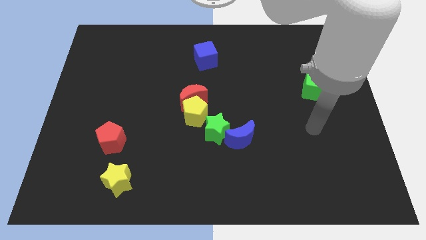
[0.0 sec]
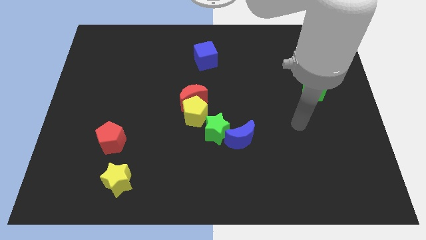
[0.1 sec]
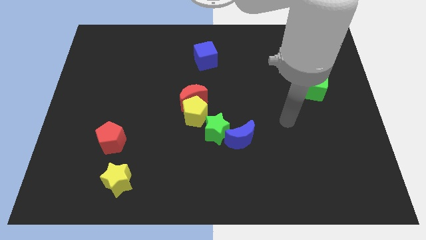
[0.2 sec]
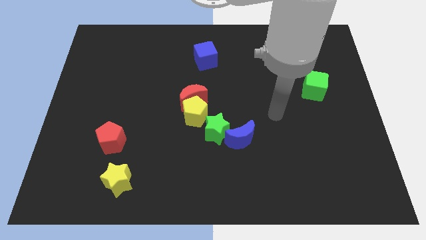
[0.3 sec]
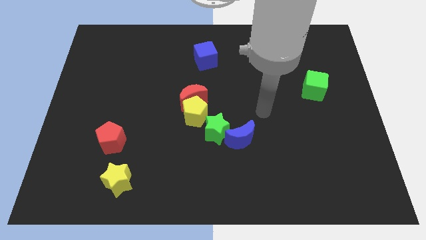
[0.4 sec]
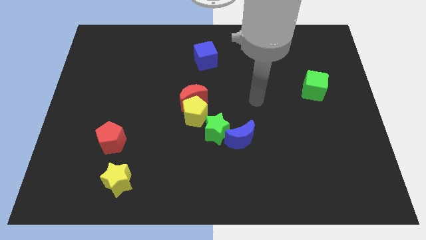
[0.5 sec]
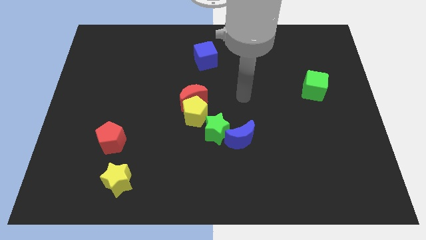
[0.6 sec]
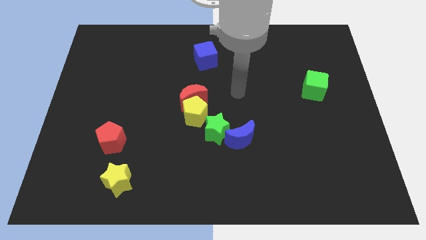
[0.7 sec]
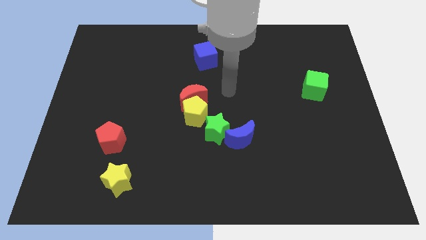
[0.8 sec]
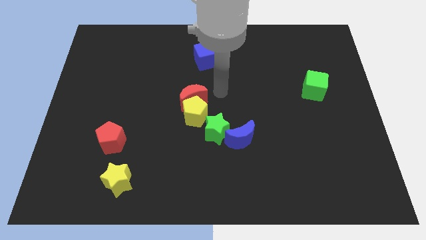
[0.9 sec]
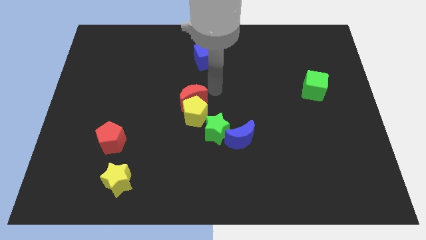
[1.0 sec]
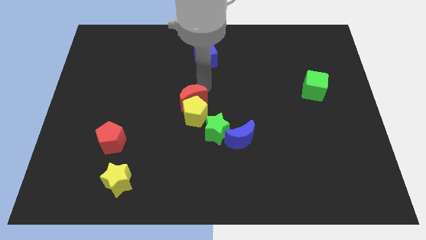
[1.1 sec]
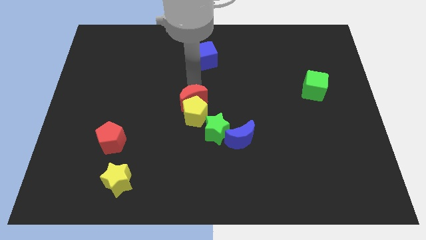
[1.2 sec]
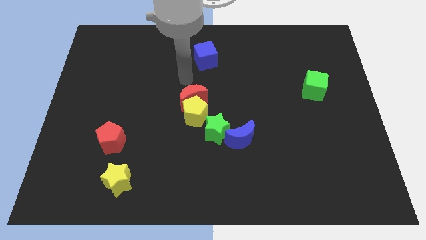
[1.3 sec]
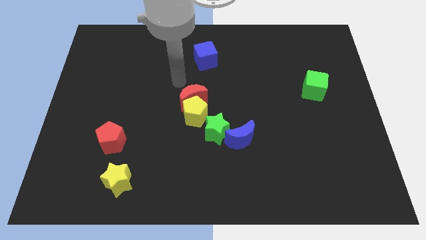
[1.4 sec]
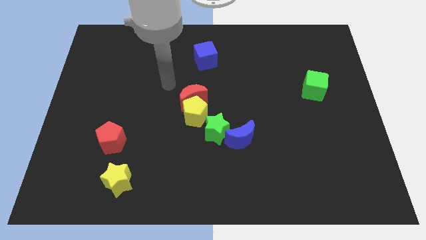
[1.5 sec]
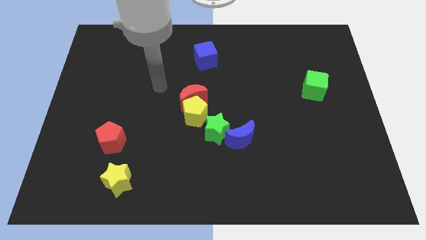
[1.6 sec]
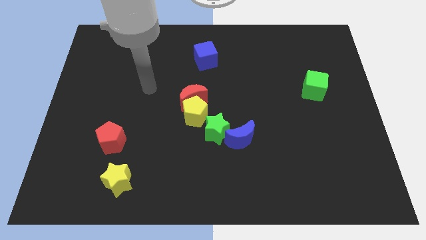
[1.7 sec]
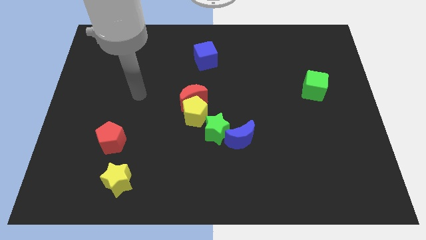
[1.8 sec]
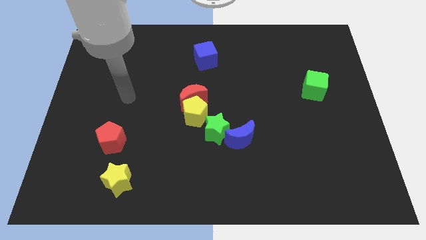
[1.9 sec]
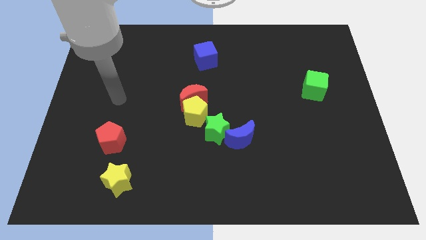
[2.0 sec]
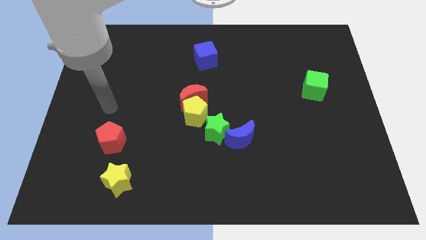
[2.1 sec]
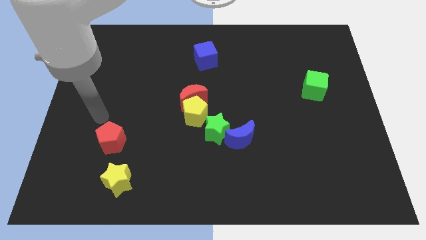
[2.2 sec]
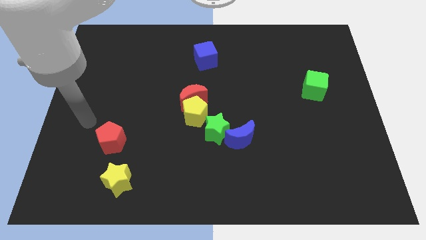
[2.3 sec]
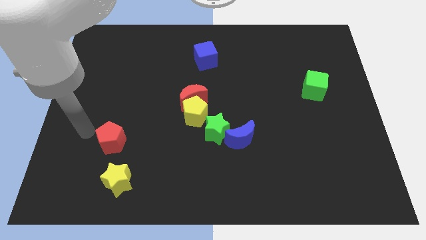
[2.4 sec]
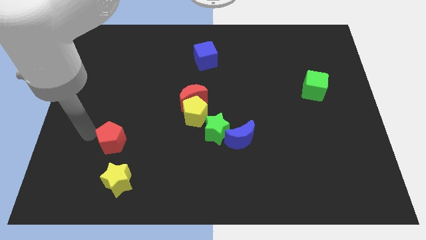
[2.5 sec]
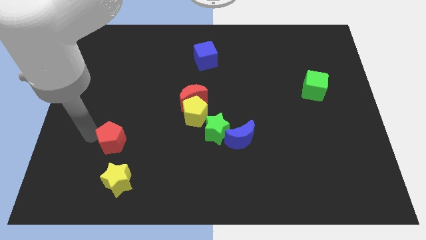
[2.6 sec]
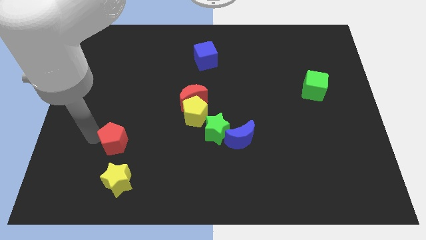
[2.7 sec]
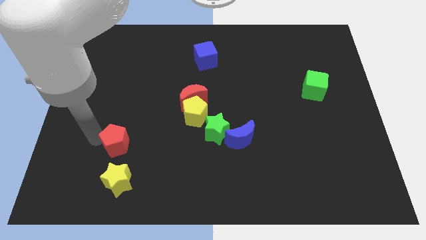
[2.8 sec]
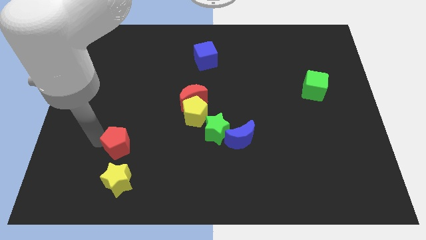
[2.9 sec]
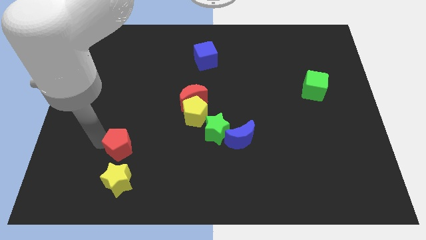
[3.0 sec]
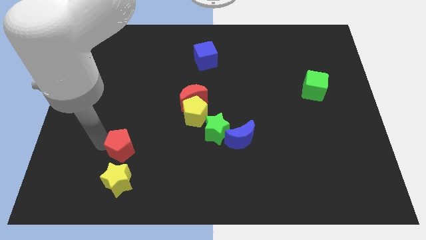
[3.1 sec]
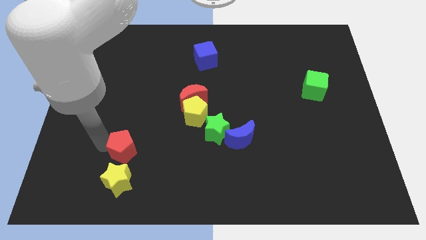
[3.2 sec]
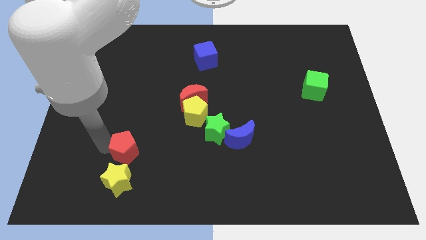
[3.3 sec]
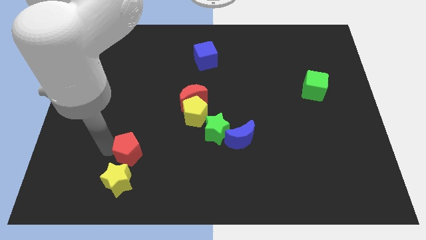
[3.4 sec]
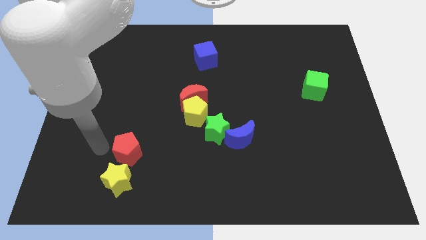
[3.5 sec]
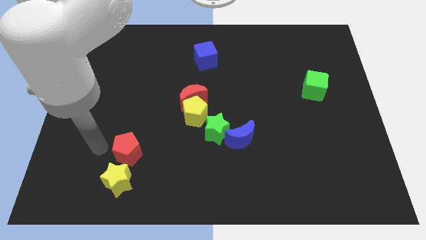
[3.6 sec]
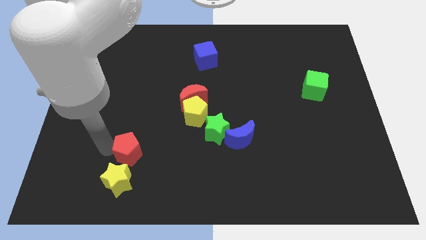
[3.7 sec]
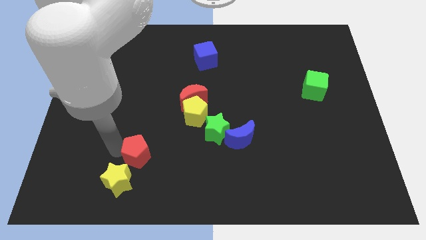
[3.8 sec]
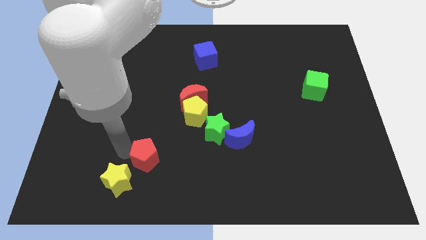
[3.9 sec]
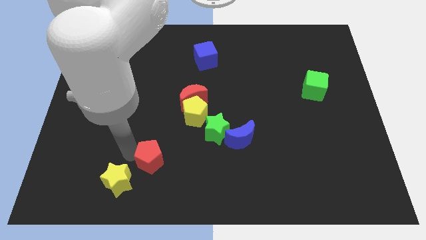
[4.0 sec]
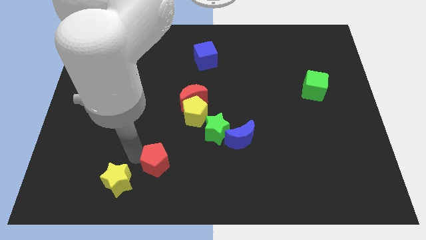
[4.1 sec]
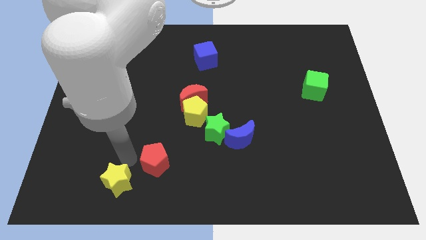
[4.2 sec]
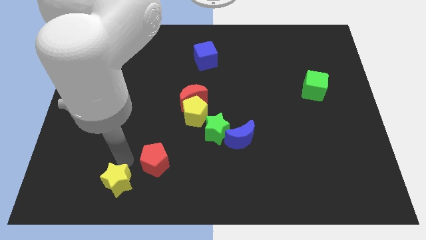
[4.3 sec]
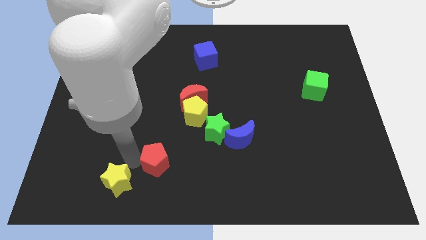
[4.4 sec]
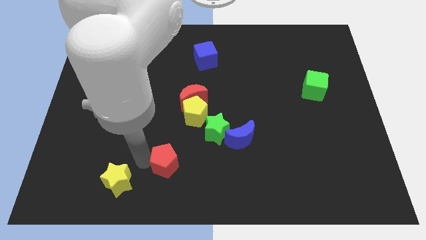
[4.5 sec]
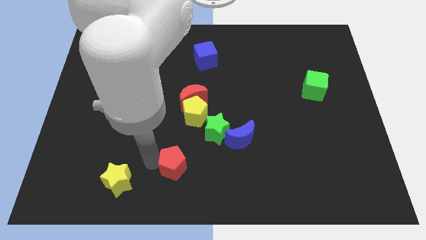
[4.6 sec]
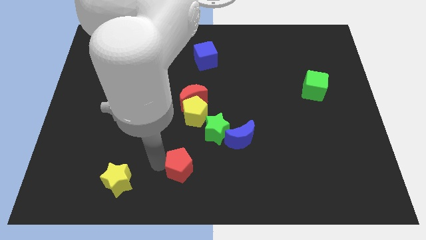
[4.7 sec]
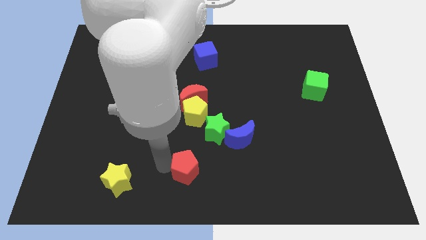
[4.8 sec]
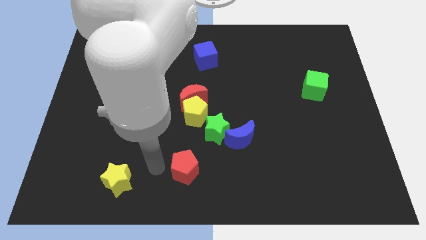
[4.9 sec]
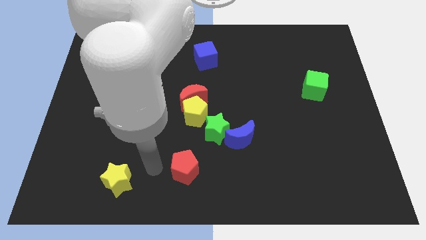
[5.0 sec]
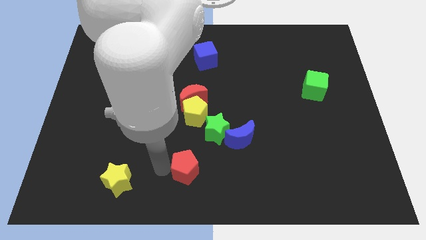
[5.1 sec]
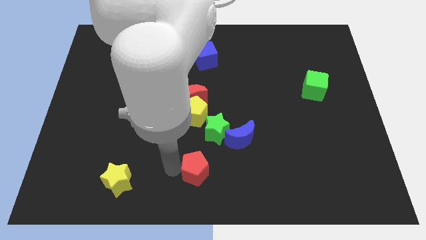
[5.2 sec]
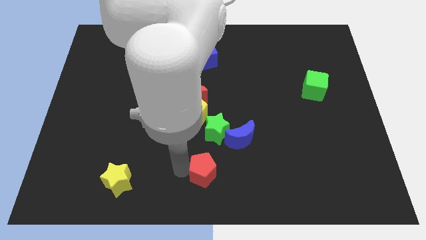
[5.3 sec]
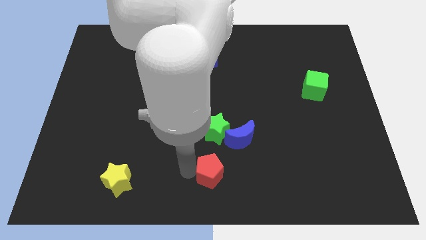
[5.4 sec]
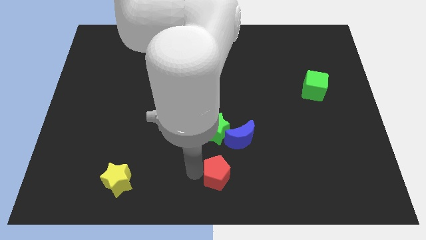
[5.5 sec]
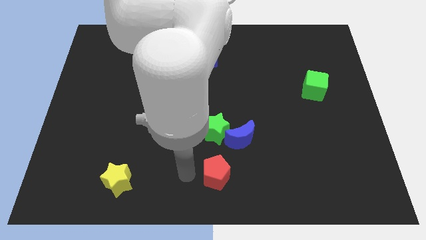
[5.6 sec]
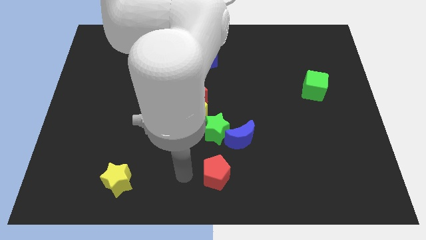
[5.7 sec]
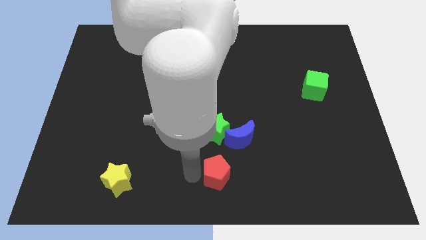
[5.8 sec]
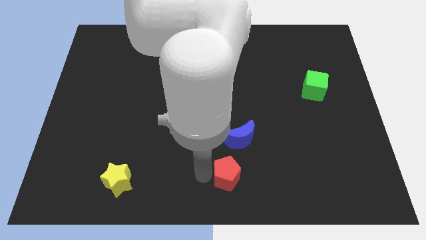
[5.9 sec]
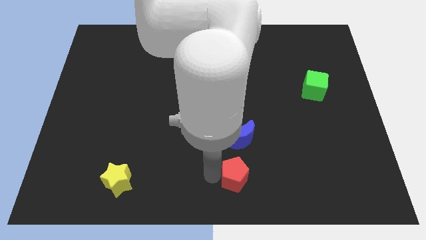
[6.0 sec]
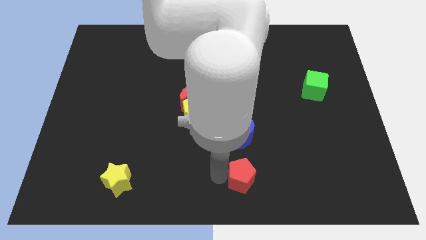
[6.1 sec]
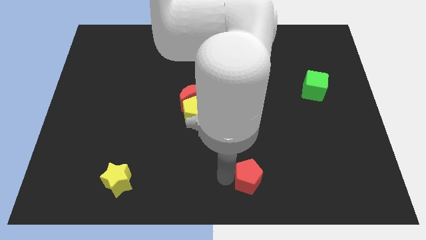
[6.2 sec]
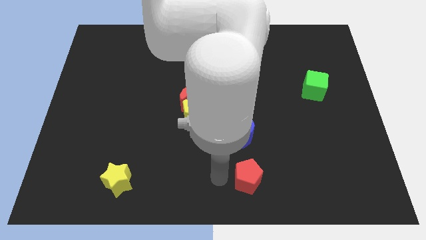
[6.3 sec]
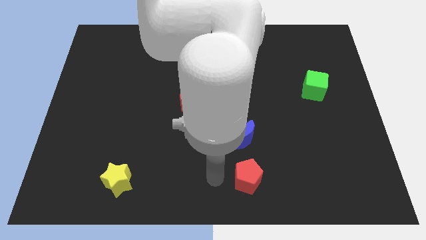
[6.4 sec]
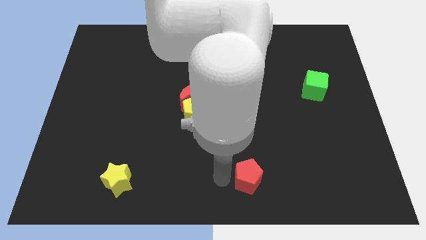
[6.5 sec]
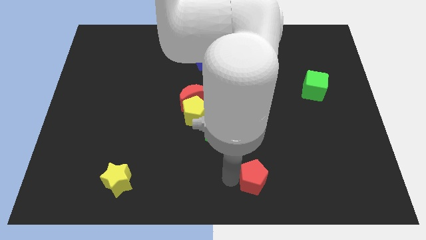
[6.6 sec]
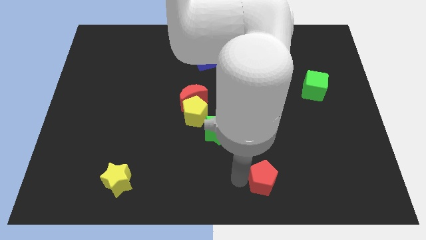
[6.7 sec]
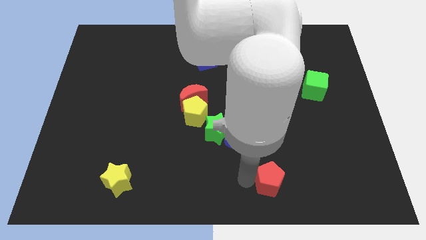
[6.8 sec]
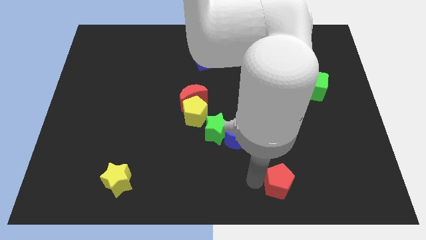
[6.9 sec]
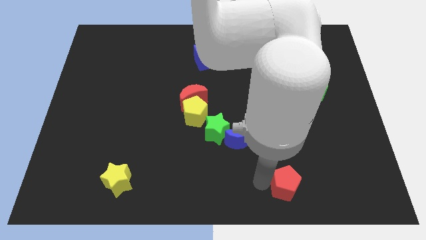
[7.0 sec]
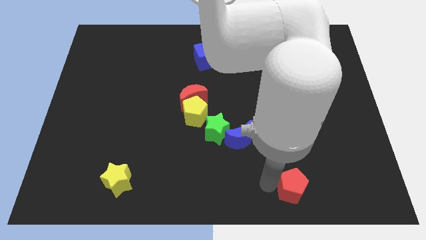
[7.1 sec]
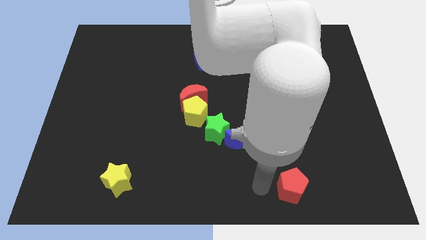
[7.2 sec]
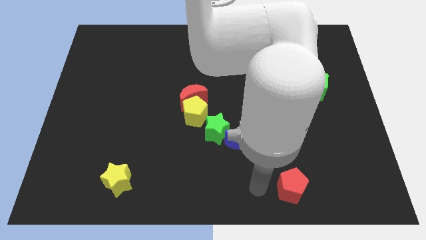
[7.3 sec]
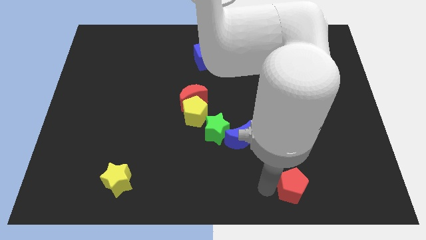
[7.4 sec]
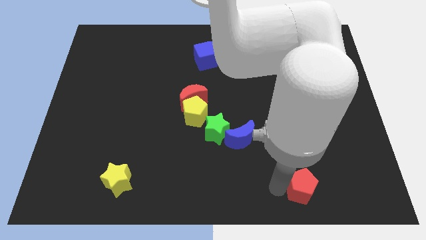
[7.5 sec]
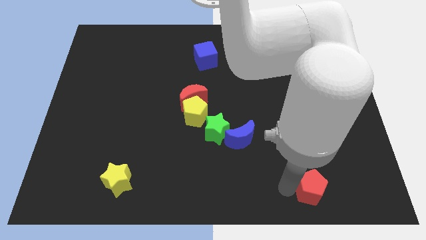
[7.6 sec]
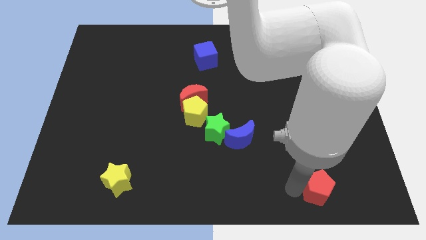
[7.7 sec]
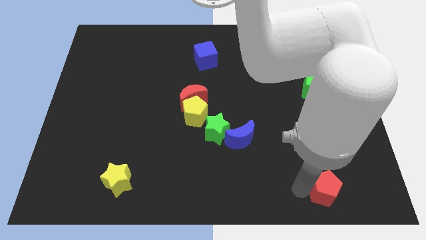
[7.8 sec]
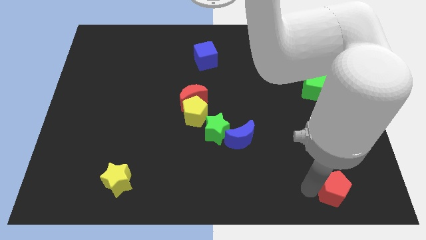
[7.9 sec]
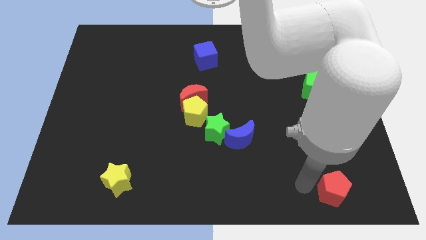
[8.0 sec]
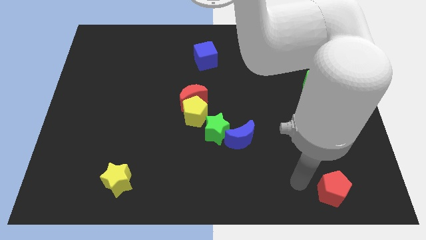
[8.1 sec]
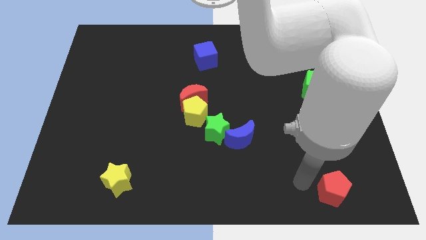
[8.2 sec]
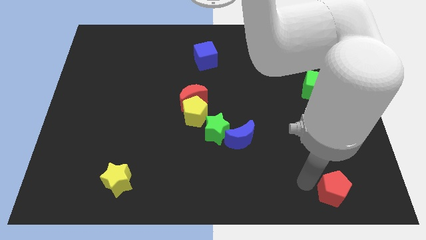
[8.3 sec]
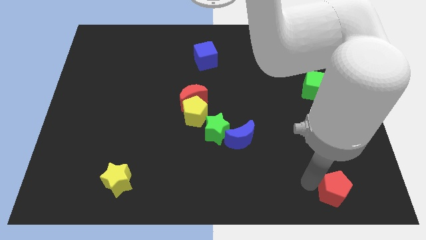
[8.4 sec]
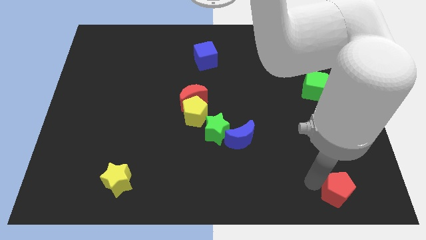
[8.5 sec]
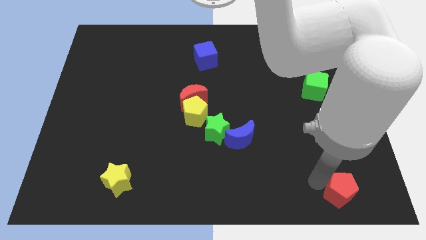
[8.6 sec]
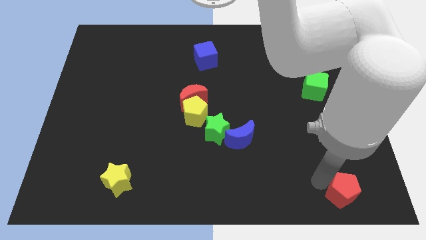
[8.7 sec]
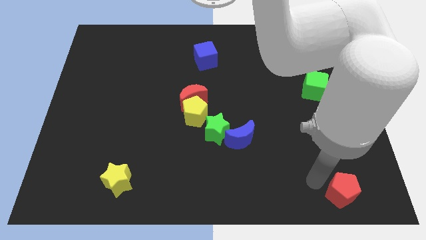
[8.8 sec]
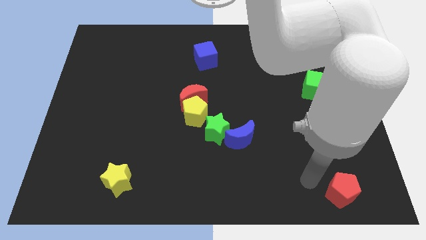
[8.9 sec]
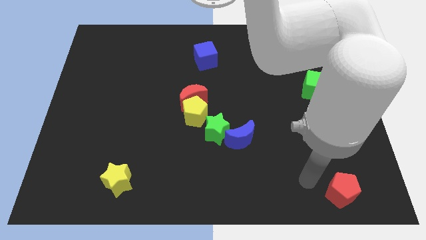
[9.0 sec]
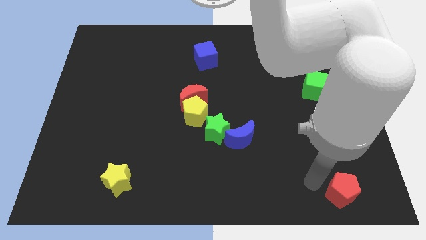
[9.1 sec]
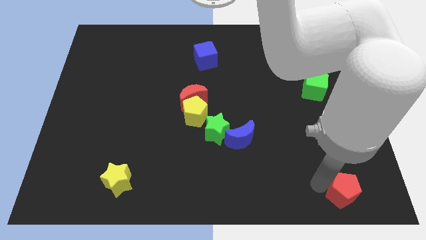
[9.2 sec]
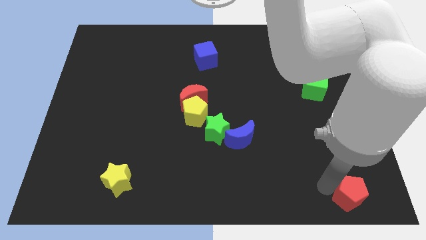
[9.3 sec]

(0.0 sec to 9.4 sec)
slide the red pentagon to the lower right corner
